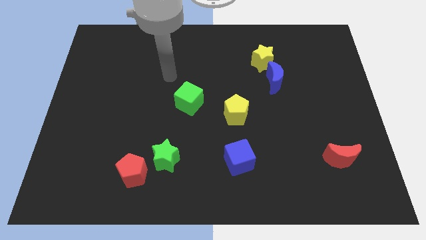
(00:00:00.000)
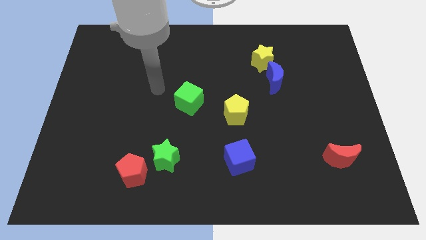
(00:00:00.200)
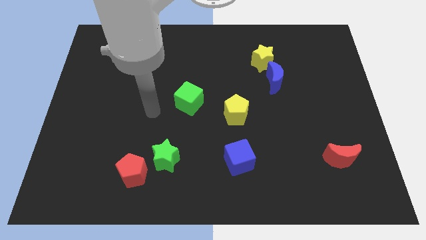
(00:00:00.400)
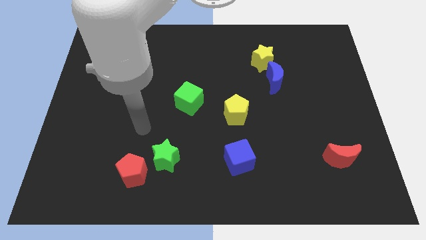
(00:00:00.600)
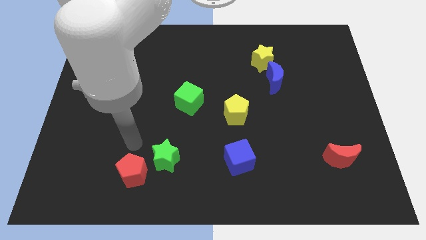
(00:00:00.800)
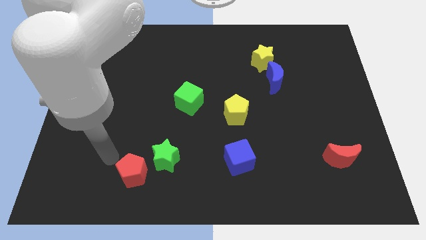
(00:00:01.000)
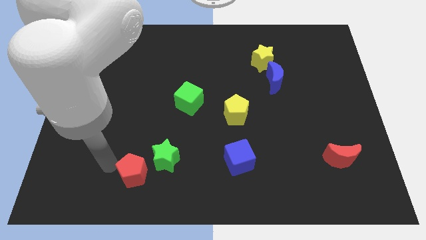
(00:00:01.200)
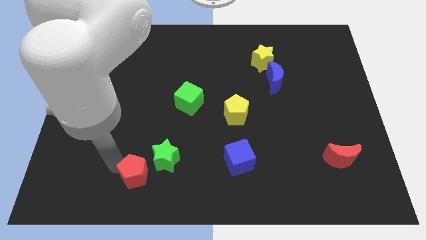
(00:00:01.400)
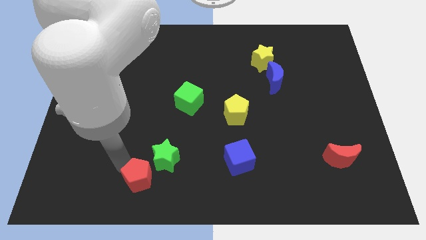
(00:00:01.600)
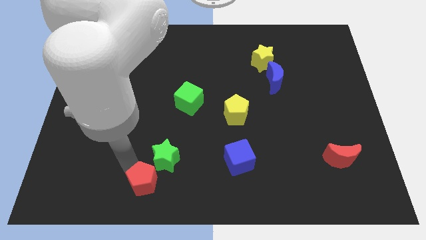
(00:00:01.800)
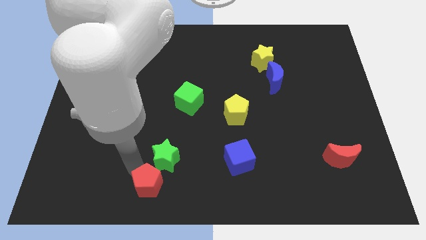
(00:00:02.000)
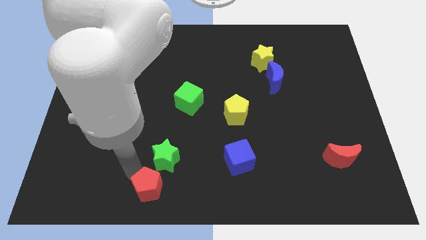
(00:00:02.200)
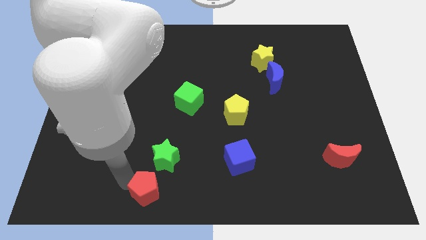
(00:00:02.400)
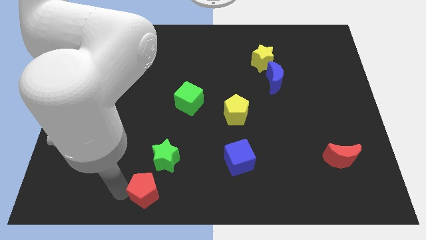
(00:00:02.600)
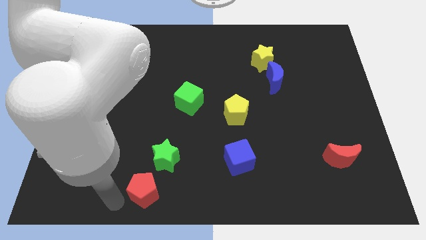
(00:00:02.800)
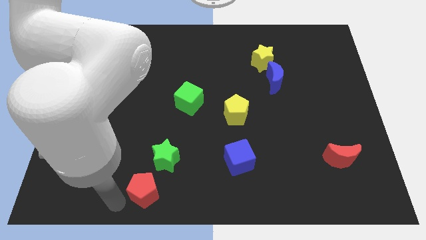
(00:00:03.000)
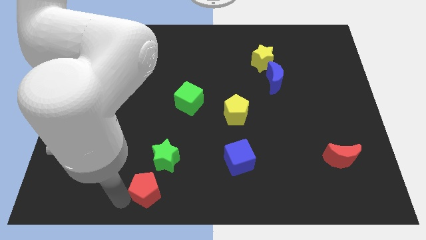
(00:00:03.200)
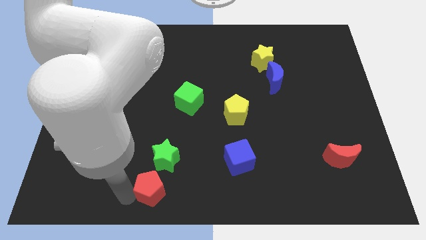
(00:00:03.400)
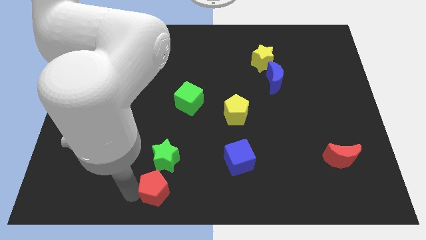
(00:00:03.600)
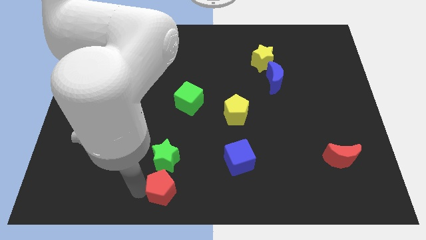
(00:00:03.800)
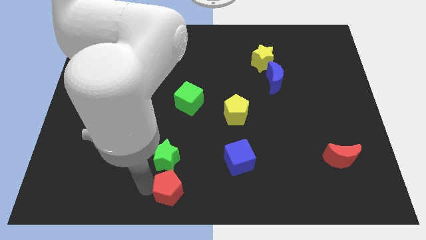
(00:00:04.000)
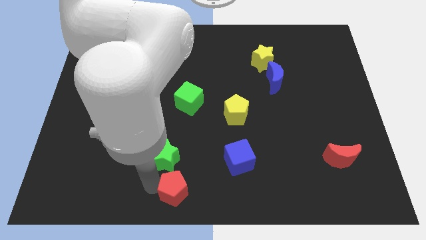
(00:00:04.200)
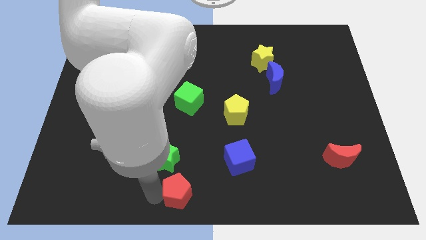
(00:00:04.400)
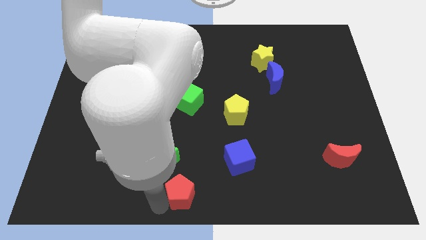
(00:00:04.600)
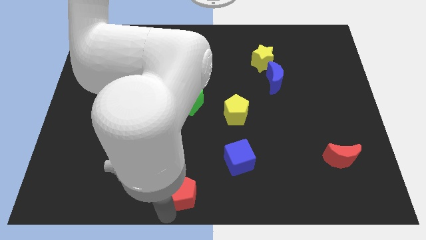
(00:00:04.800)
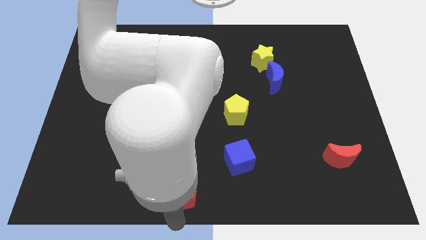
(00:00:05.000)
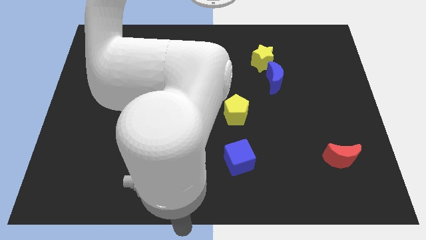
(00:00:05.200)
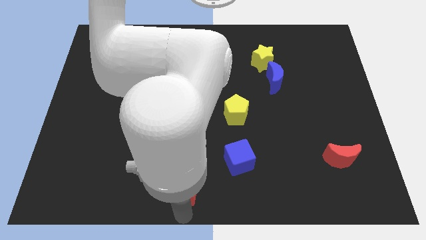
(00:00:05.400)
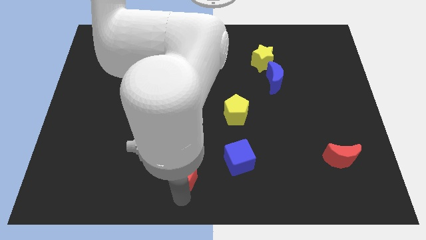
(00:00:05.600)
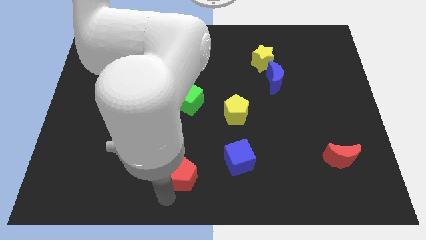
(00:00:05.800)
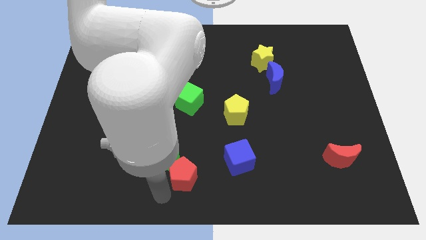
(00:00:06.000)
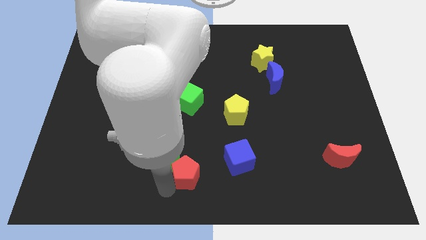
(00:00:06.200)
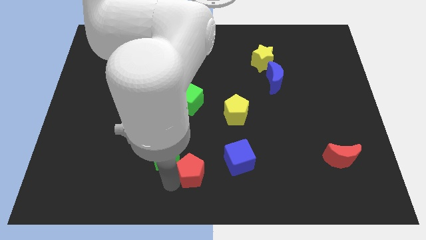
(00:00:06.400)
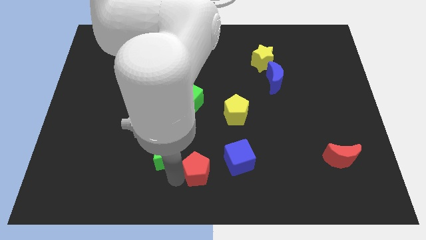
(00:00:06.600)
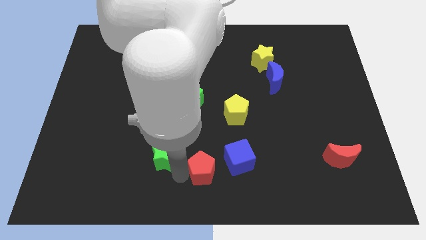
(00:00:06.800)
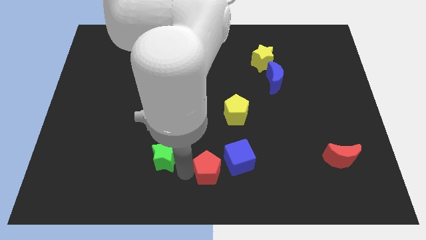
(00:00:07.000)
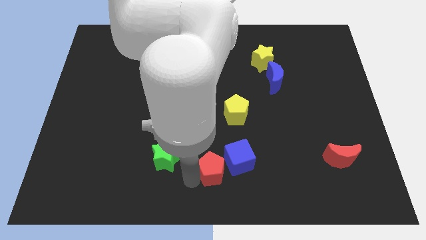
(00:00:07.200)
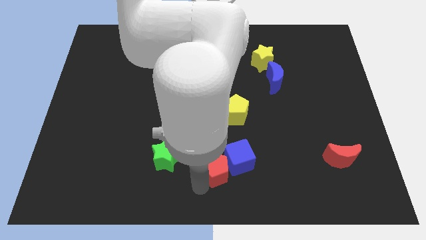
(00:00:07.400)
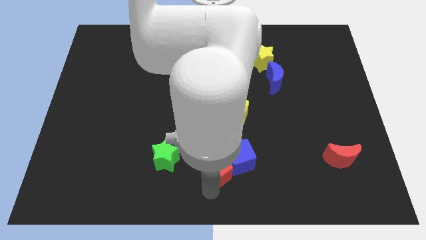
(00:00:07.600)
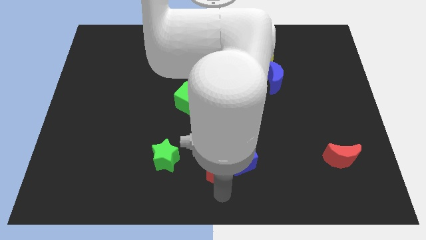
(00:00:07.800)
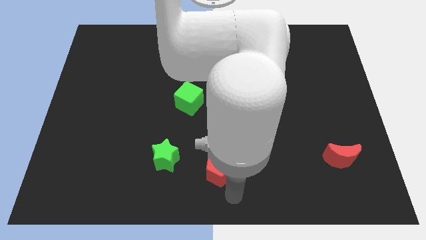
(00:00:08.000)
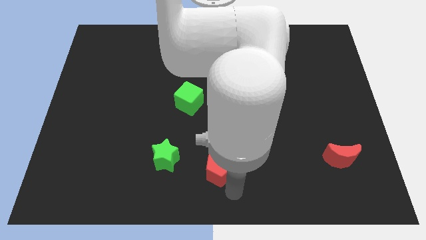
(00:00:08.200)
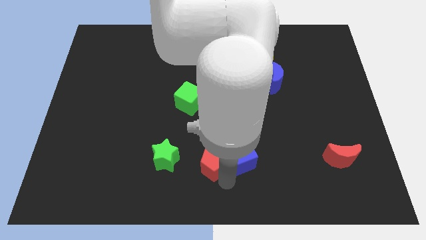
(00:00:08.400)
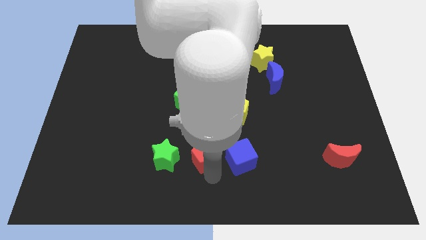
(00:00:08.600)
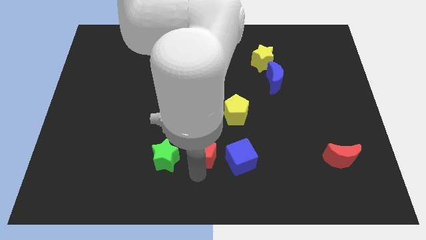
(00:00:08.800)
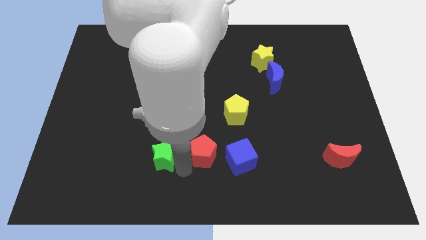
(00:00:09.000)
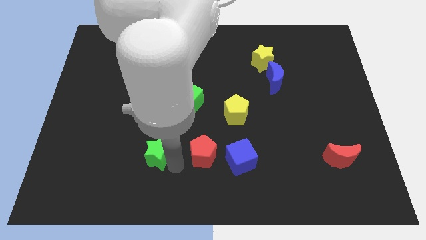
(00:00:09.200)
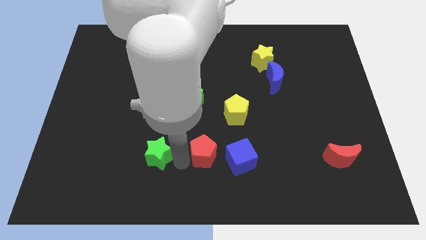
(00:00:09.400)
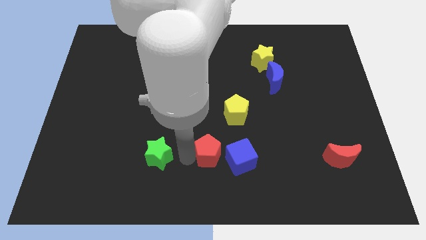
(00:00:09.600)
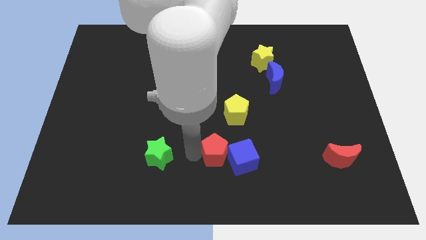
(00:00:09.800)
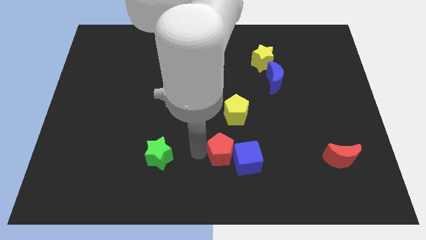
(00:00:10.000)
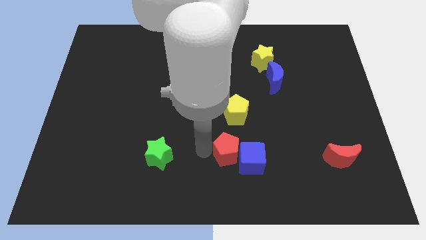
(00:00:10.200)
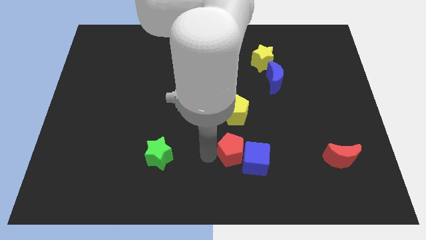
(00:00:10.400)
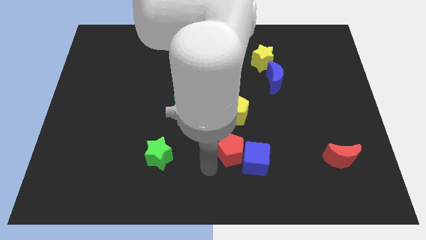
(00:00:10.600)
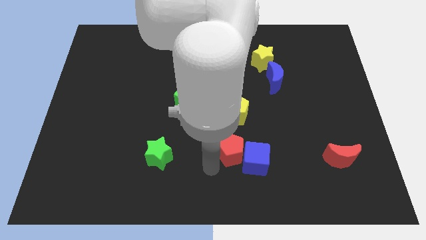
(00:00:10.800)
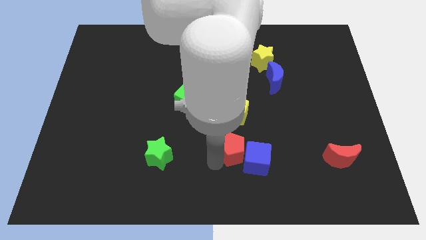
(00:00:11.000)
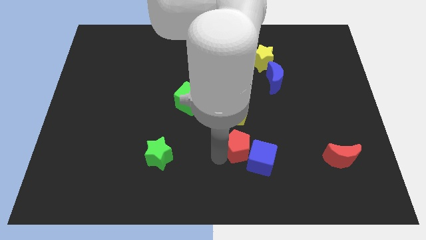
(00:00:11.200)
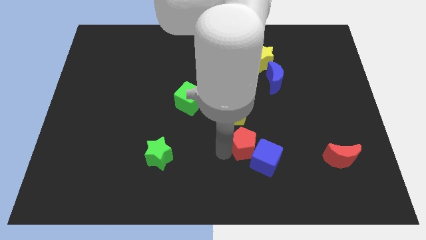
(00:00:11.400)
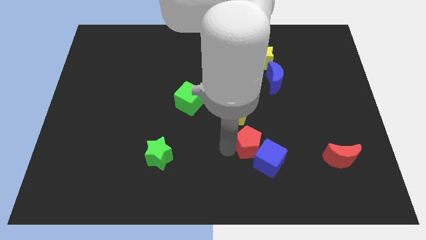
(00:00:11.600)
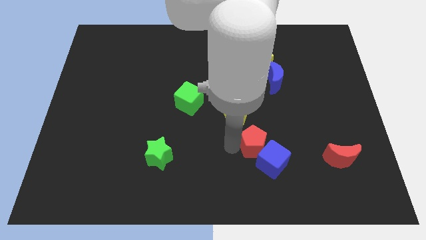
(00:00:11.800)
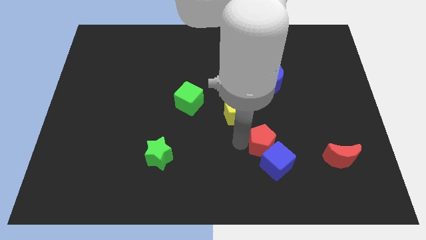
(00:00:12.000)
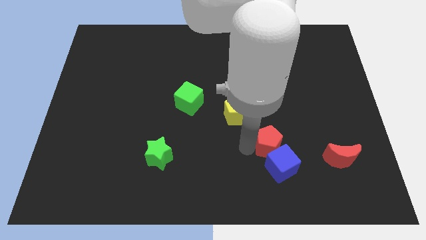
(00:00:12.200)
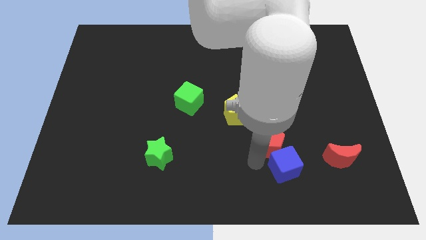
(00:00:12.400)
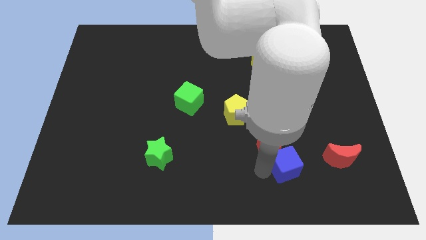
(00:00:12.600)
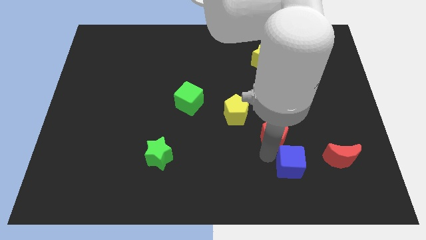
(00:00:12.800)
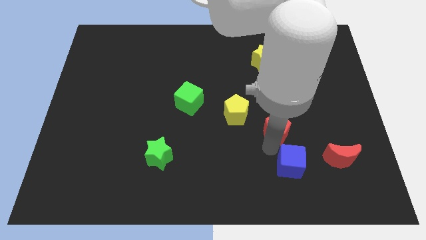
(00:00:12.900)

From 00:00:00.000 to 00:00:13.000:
push the red pentagon to the bottom side of the blue moon
